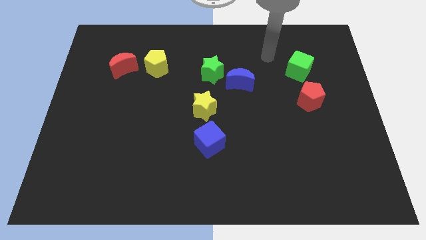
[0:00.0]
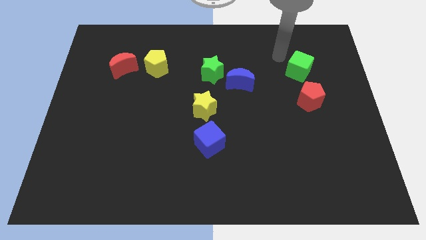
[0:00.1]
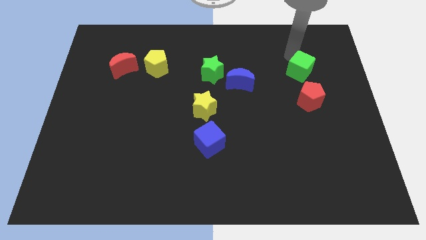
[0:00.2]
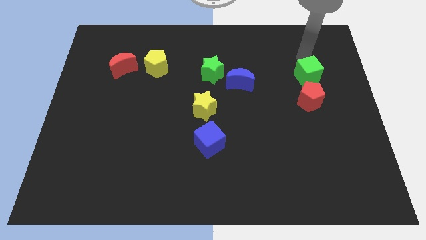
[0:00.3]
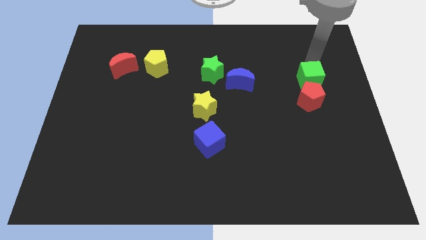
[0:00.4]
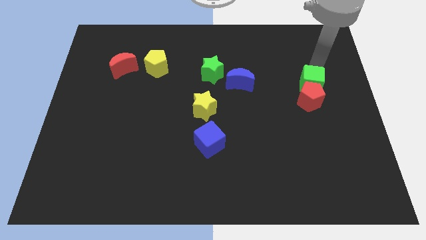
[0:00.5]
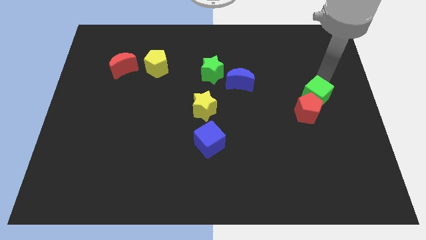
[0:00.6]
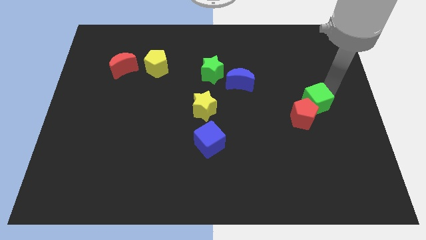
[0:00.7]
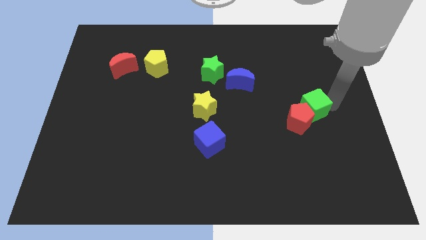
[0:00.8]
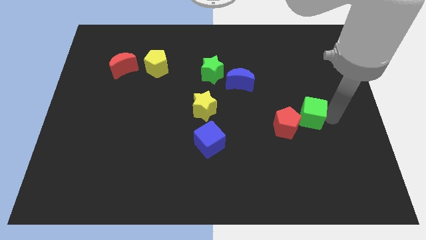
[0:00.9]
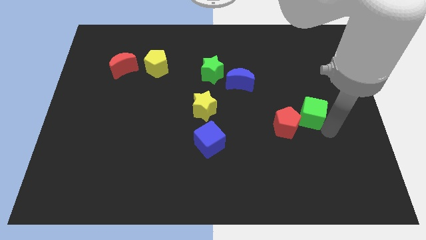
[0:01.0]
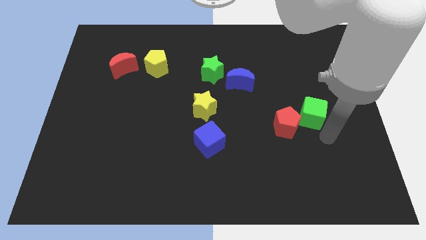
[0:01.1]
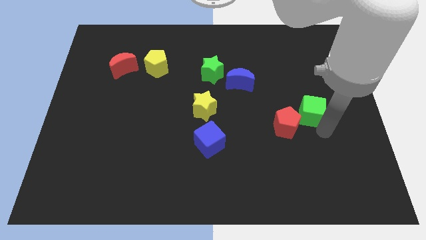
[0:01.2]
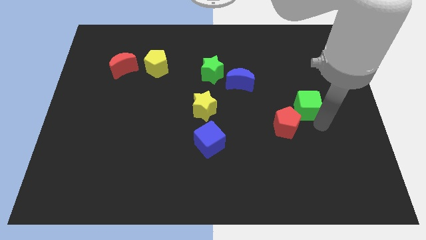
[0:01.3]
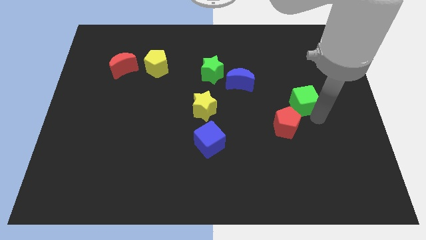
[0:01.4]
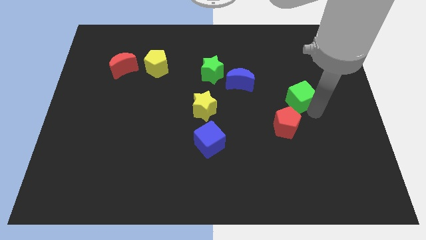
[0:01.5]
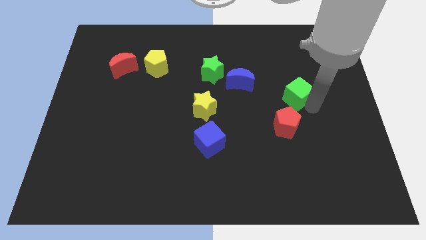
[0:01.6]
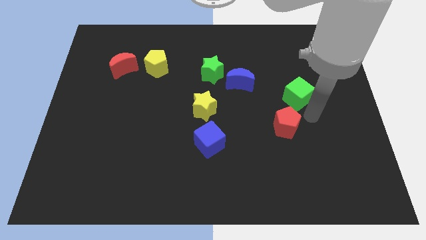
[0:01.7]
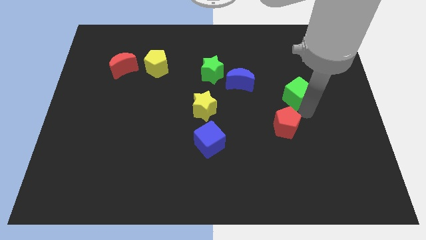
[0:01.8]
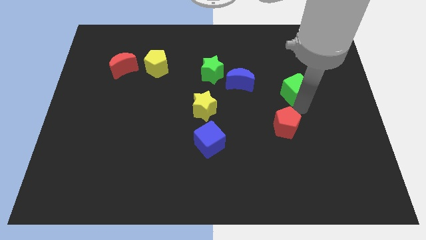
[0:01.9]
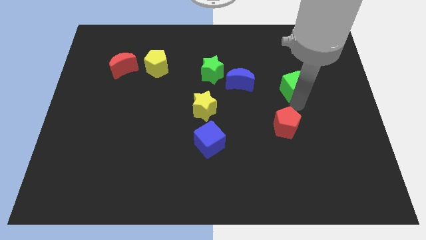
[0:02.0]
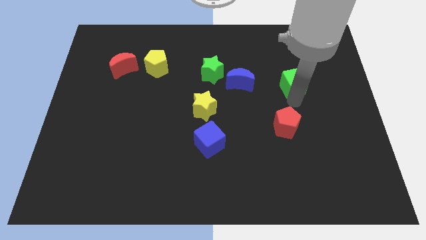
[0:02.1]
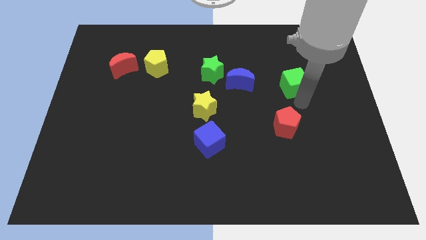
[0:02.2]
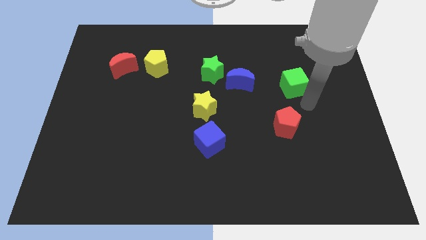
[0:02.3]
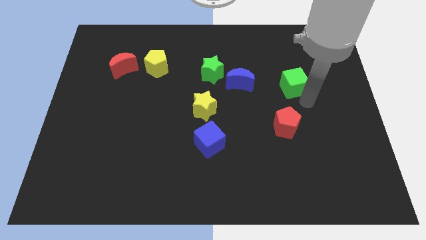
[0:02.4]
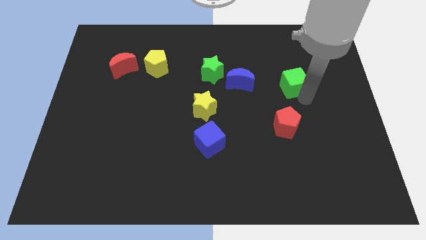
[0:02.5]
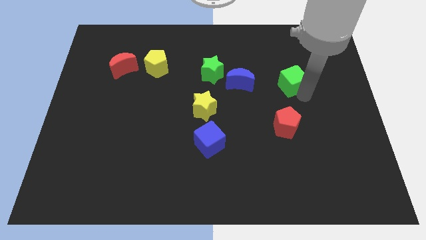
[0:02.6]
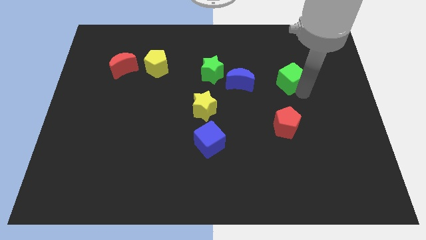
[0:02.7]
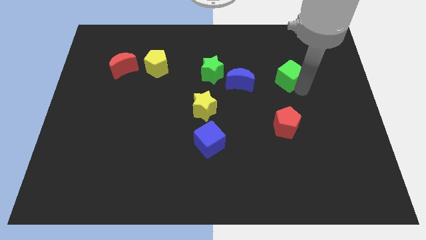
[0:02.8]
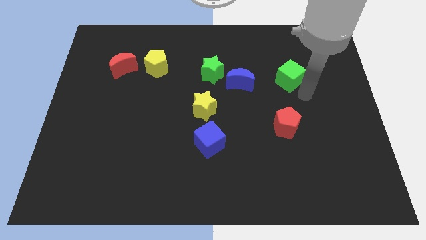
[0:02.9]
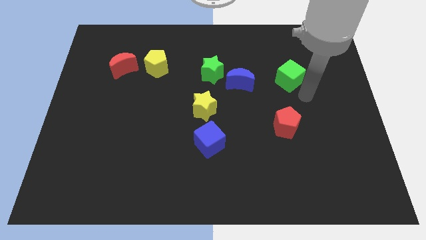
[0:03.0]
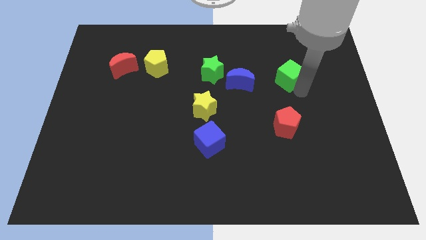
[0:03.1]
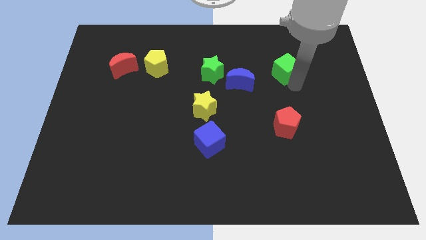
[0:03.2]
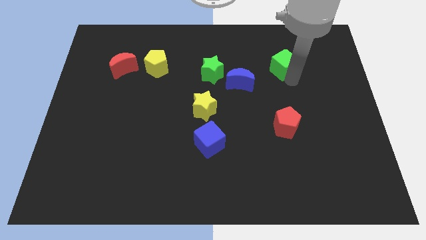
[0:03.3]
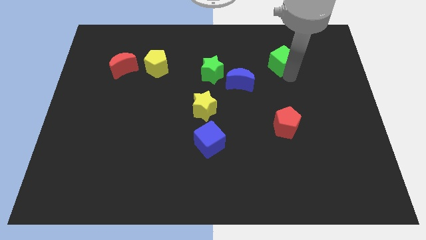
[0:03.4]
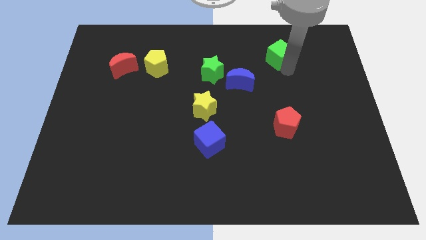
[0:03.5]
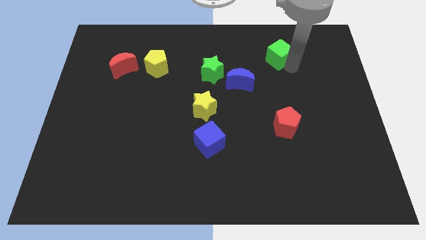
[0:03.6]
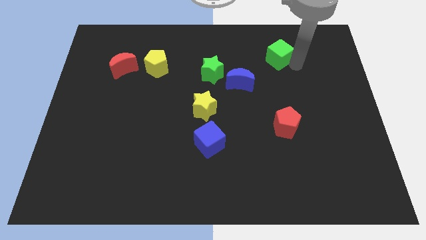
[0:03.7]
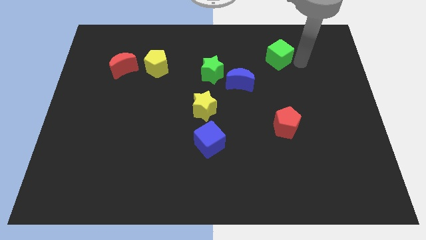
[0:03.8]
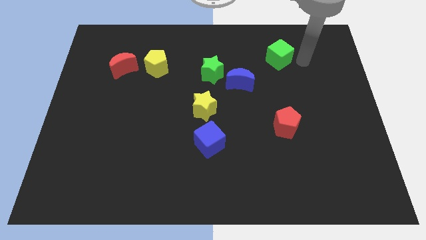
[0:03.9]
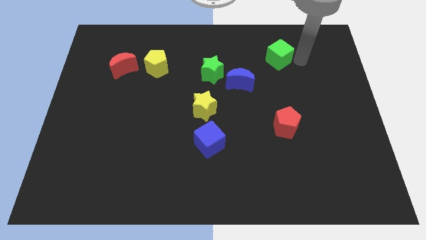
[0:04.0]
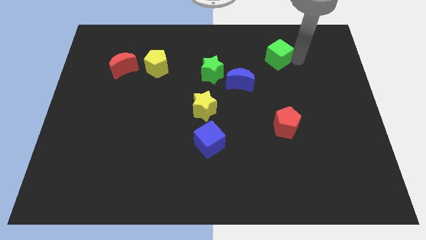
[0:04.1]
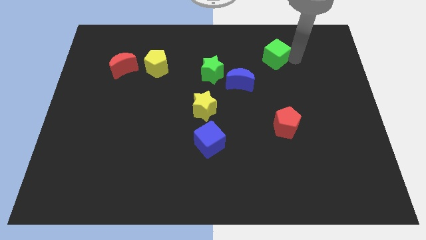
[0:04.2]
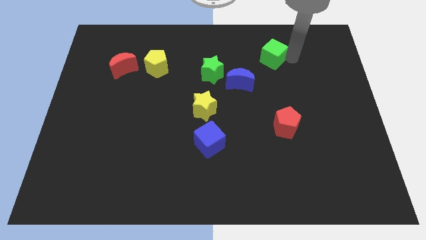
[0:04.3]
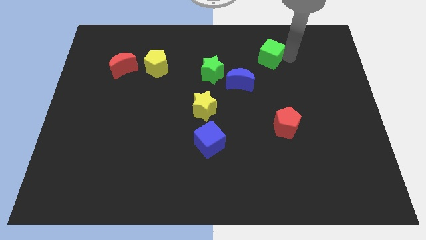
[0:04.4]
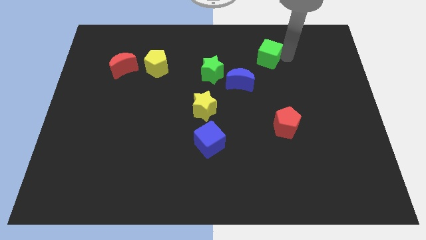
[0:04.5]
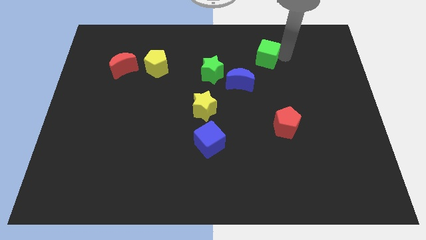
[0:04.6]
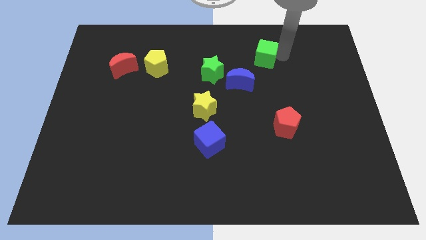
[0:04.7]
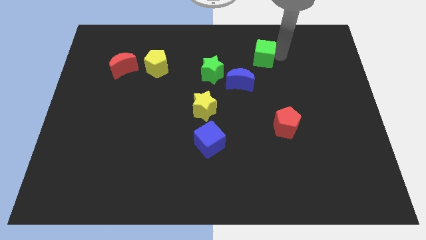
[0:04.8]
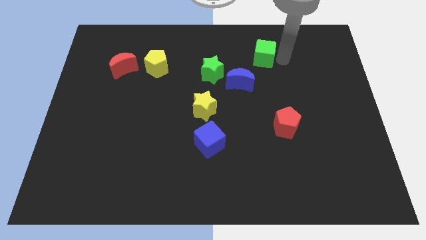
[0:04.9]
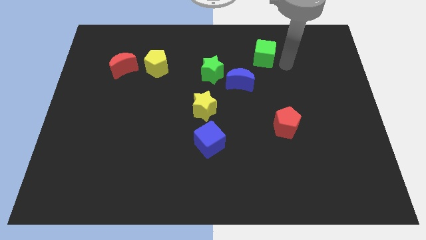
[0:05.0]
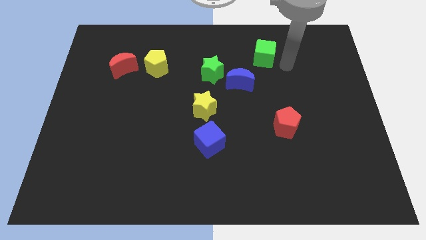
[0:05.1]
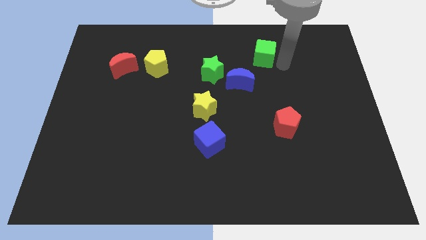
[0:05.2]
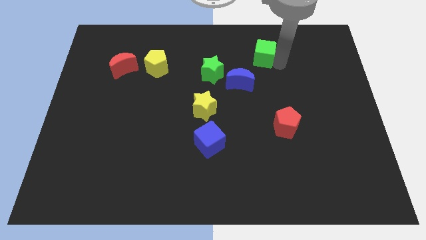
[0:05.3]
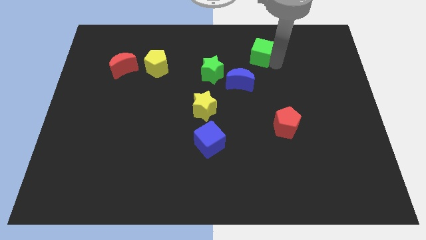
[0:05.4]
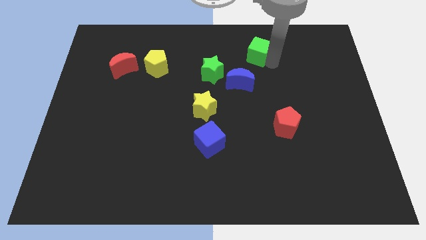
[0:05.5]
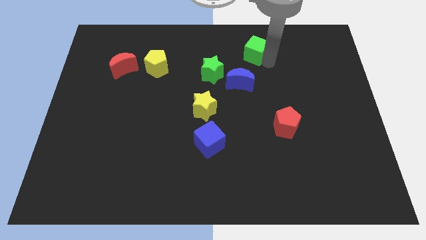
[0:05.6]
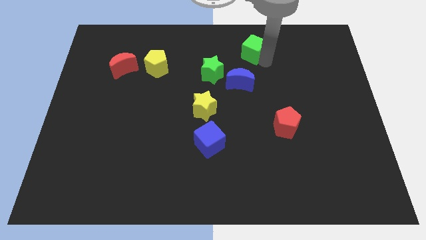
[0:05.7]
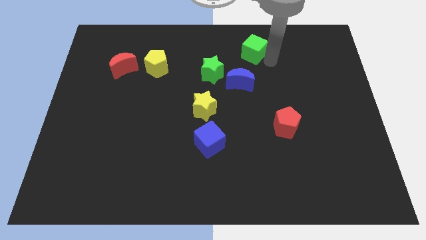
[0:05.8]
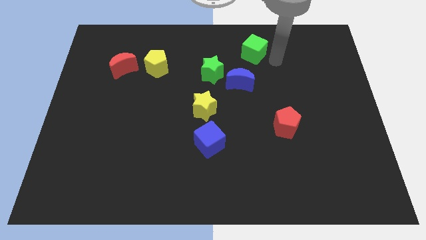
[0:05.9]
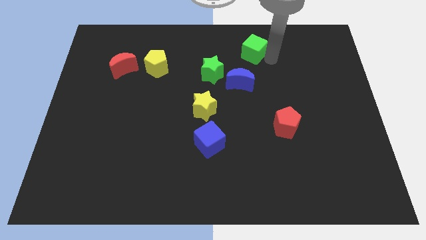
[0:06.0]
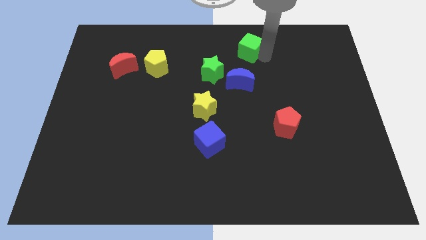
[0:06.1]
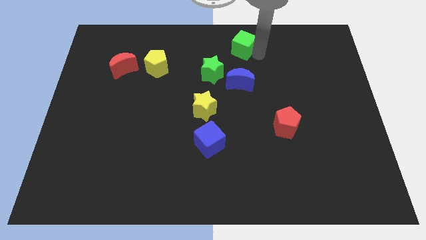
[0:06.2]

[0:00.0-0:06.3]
slide the green cube to the top
